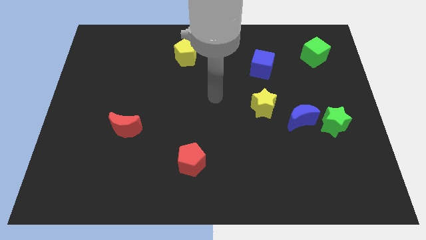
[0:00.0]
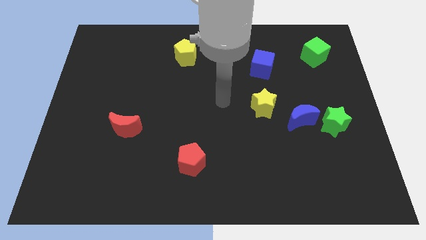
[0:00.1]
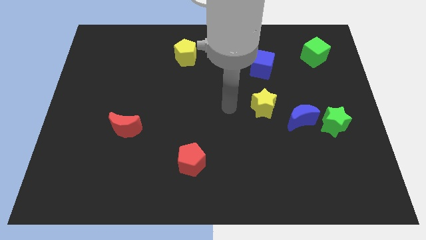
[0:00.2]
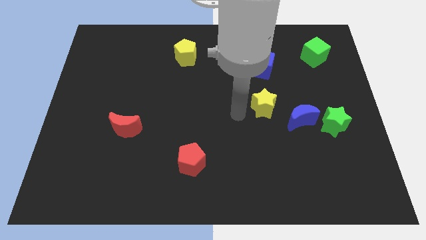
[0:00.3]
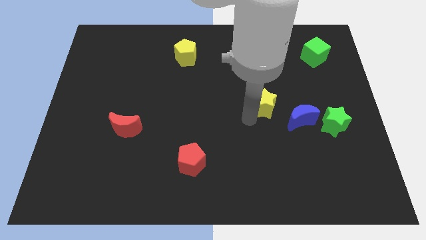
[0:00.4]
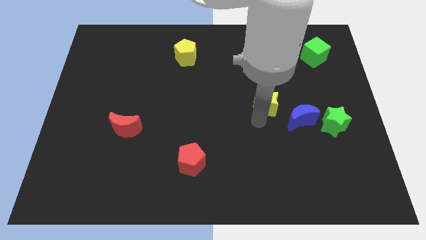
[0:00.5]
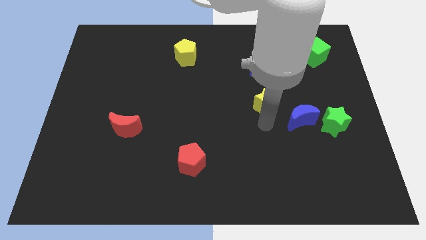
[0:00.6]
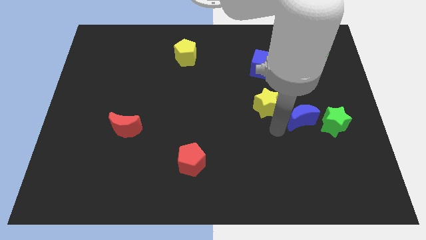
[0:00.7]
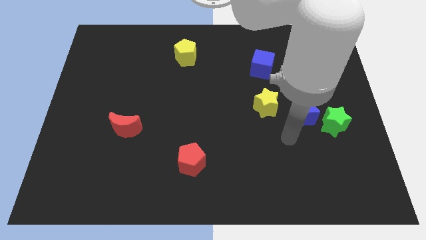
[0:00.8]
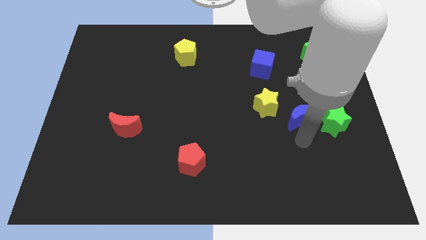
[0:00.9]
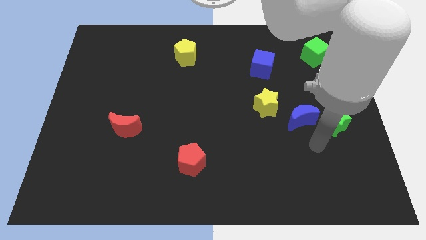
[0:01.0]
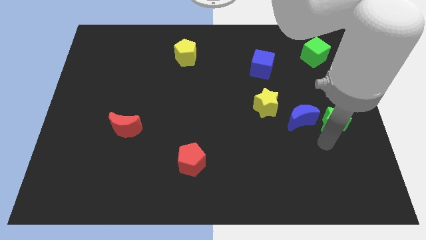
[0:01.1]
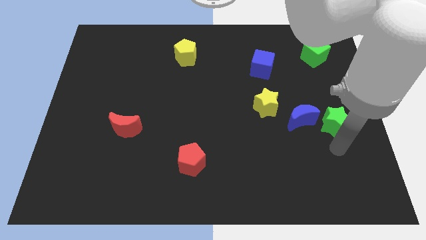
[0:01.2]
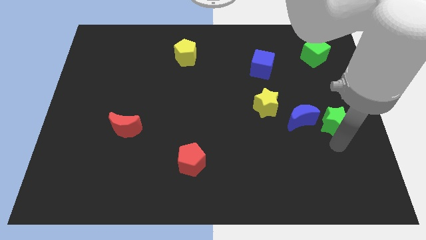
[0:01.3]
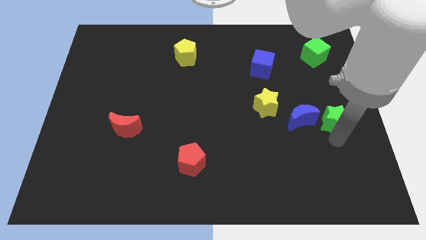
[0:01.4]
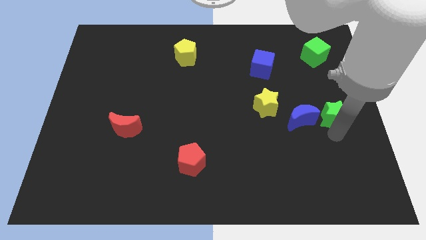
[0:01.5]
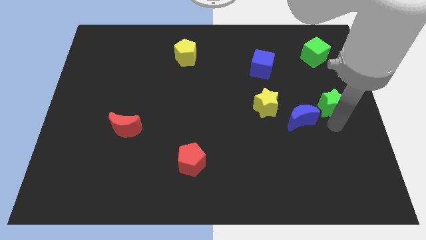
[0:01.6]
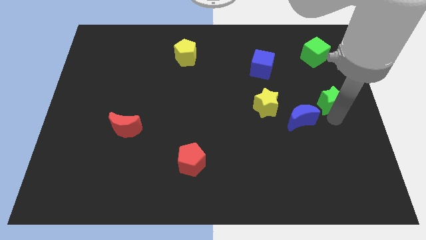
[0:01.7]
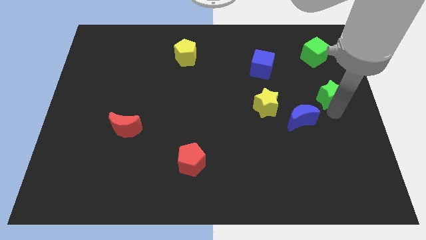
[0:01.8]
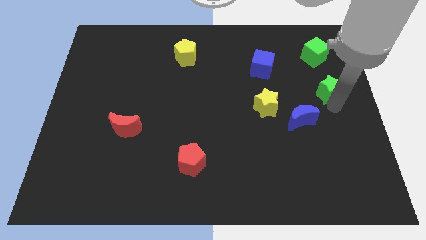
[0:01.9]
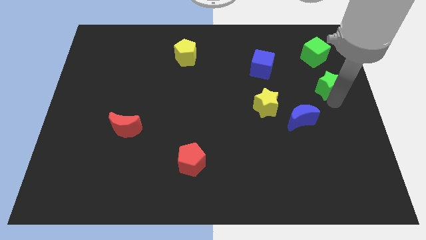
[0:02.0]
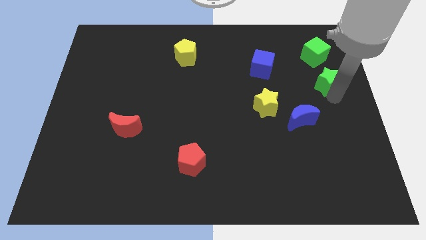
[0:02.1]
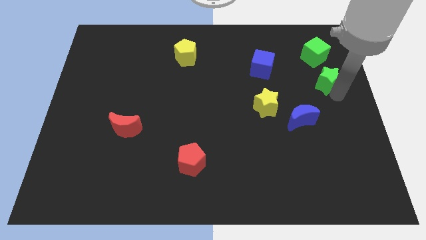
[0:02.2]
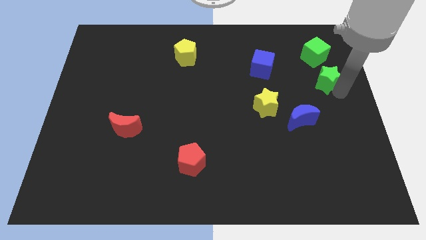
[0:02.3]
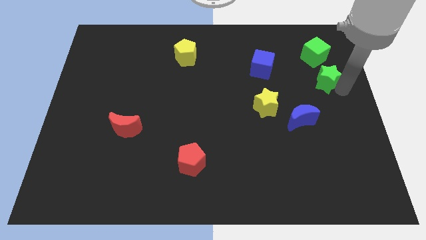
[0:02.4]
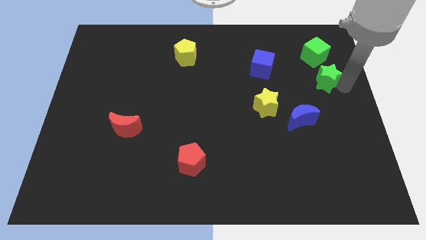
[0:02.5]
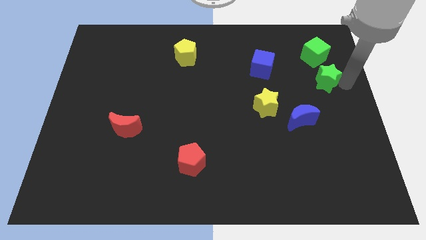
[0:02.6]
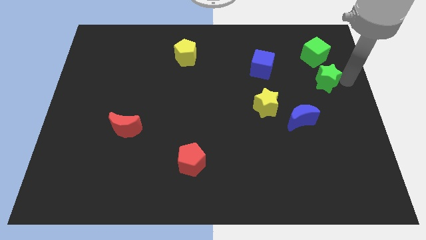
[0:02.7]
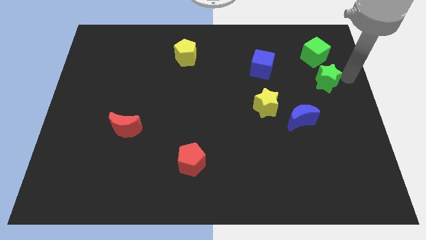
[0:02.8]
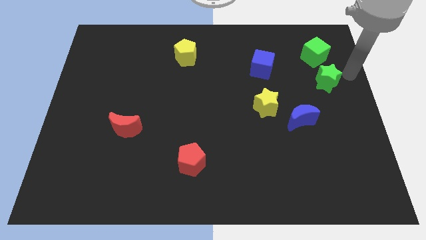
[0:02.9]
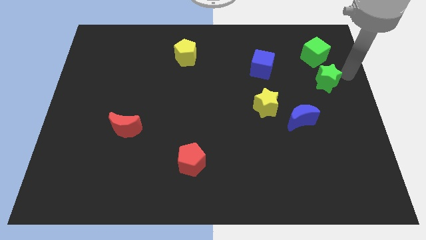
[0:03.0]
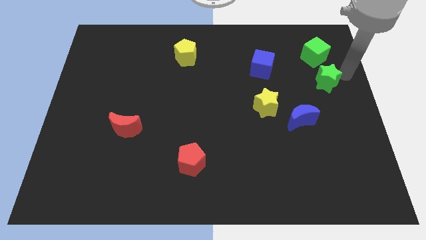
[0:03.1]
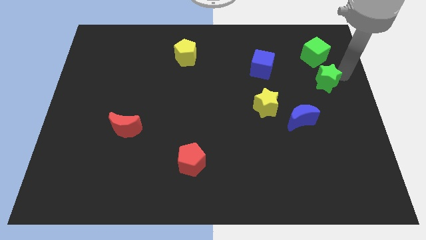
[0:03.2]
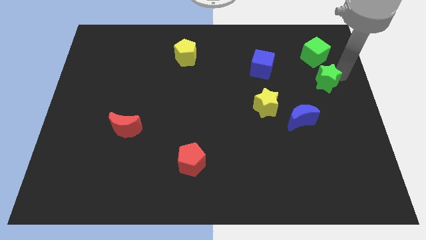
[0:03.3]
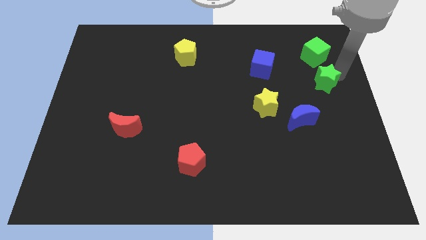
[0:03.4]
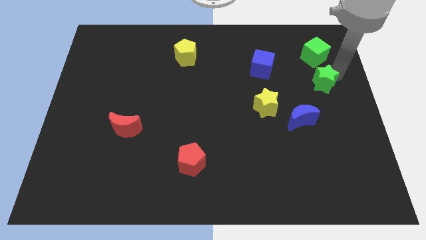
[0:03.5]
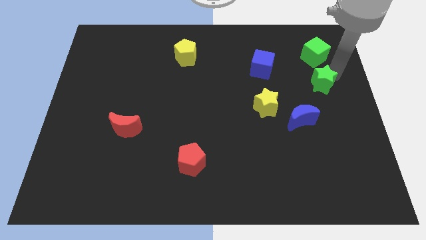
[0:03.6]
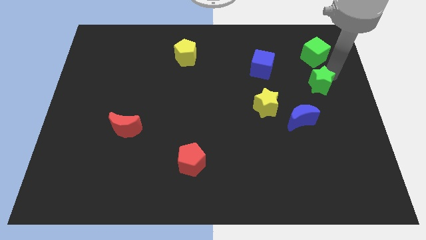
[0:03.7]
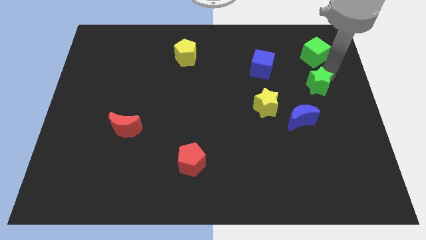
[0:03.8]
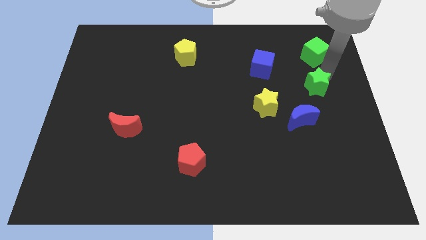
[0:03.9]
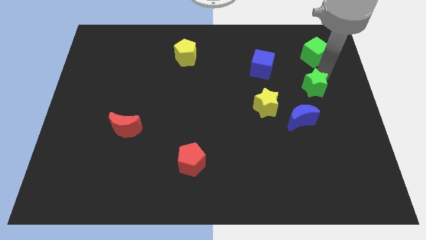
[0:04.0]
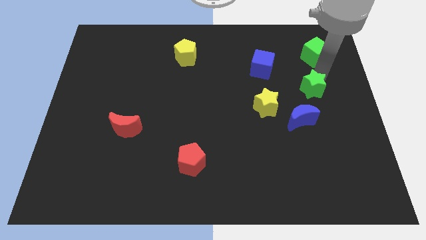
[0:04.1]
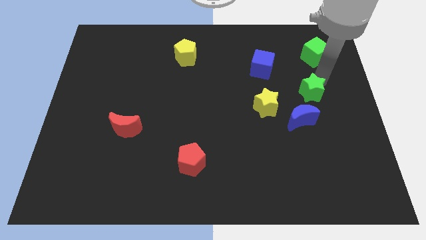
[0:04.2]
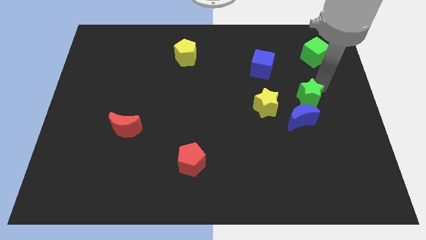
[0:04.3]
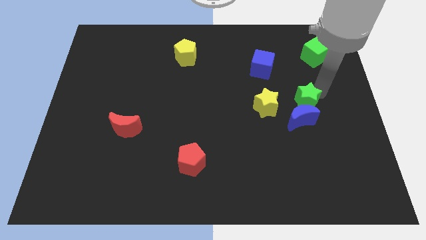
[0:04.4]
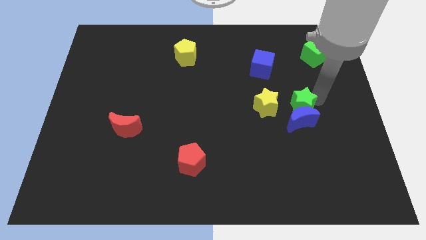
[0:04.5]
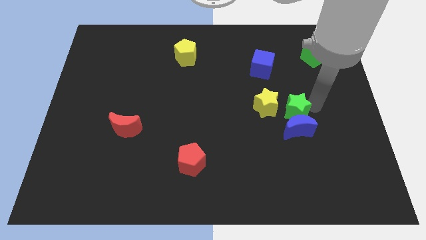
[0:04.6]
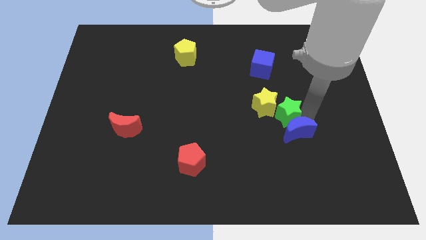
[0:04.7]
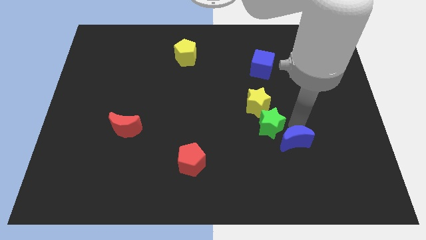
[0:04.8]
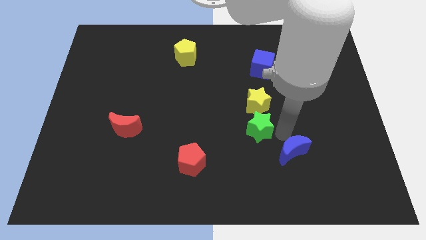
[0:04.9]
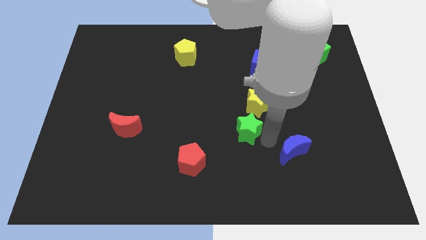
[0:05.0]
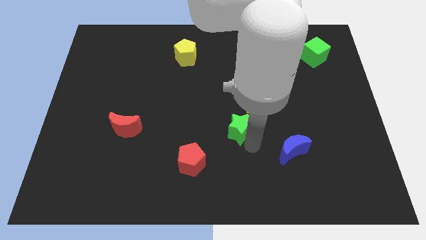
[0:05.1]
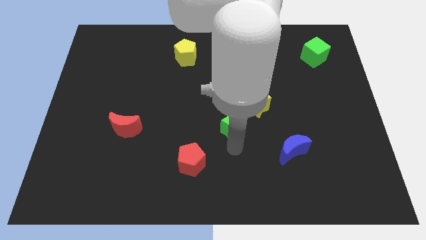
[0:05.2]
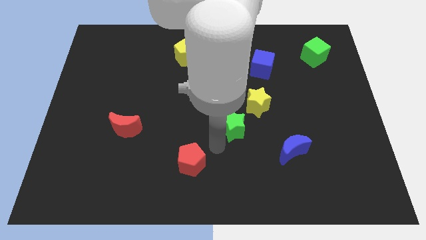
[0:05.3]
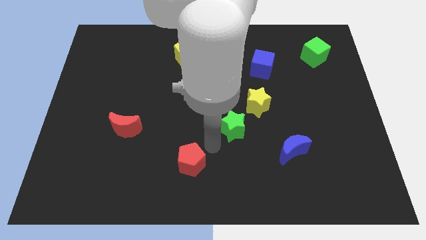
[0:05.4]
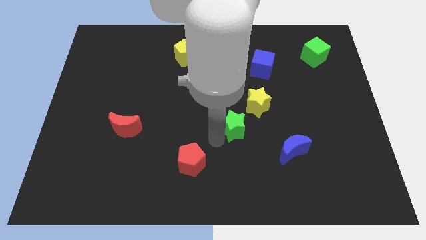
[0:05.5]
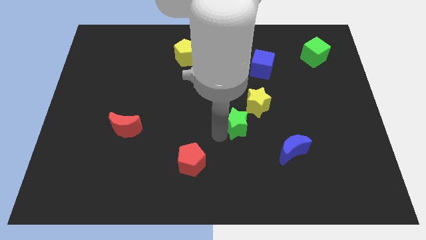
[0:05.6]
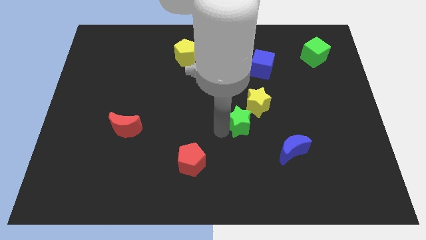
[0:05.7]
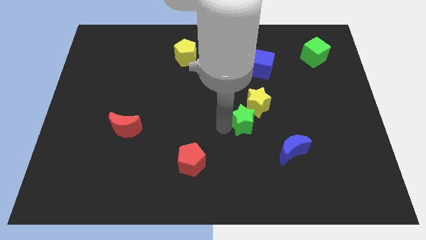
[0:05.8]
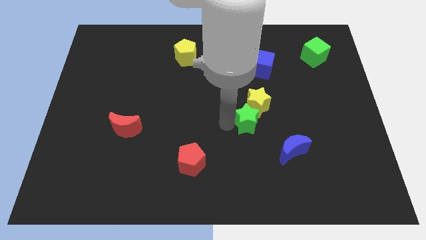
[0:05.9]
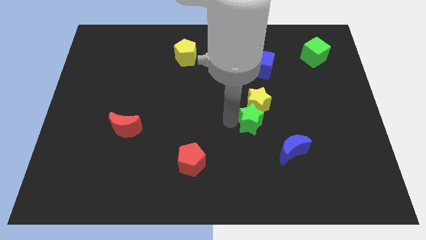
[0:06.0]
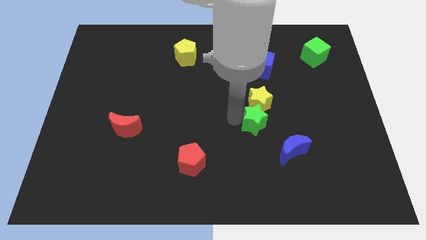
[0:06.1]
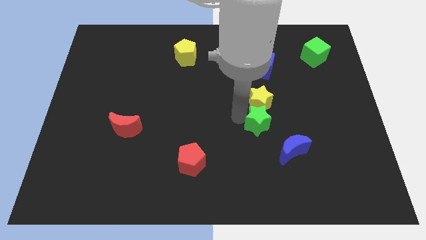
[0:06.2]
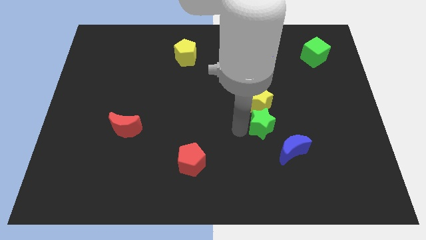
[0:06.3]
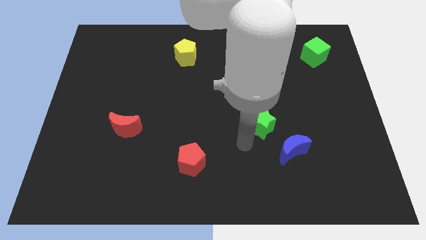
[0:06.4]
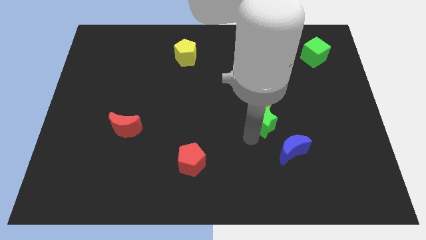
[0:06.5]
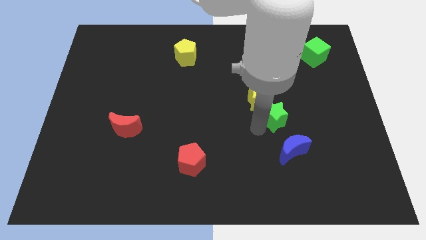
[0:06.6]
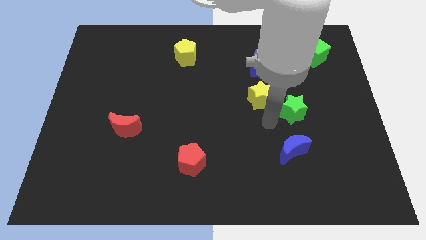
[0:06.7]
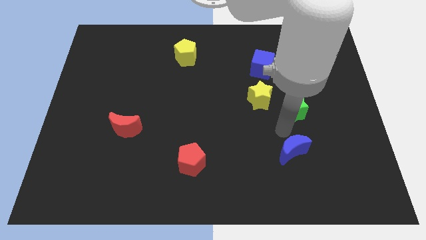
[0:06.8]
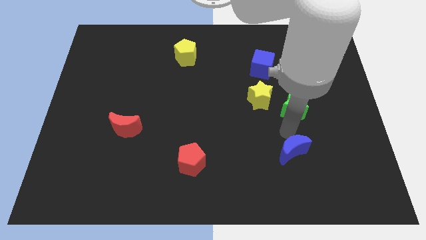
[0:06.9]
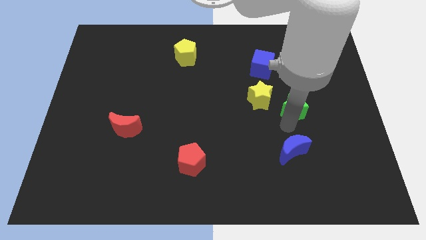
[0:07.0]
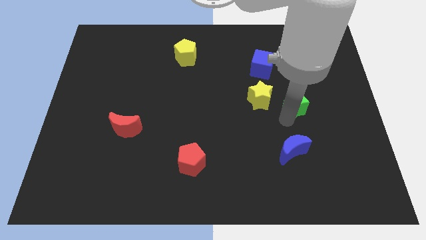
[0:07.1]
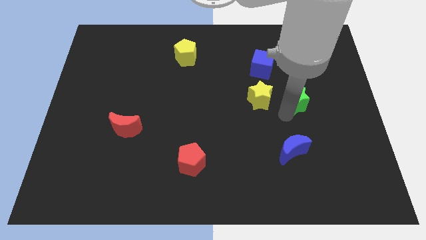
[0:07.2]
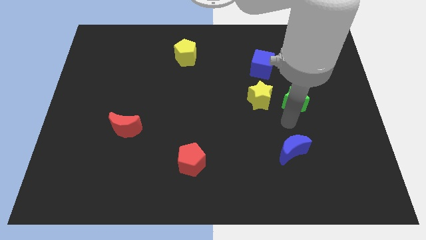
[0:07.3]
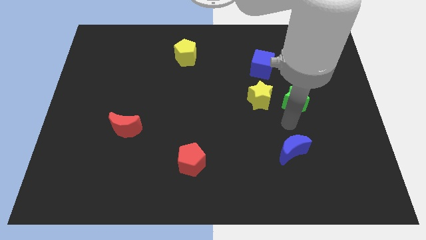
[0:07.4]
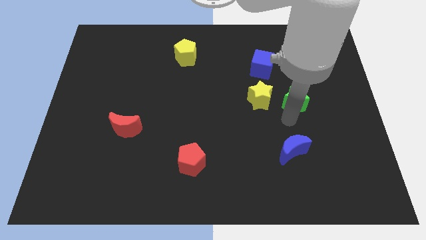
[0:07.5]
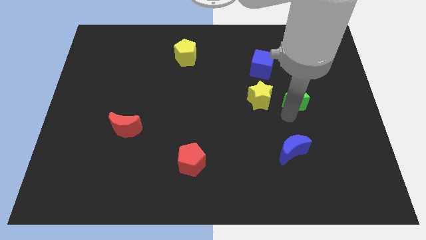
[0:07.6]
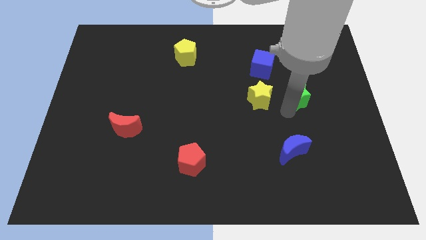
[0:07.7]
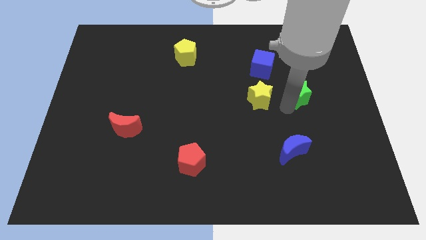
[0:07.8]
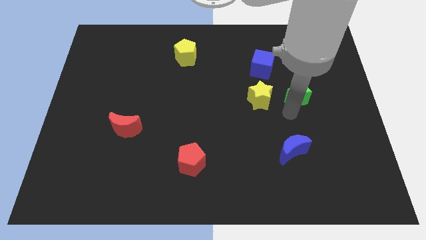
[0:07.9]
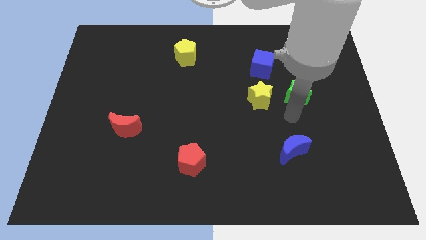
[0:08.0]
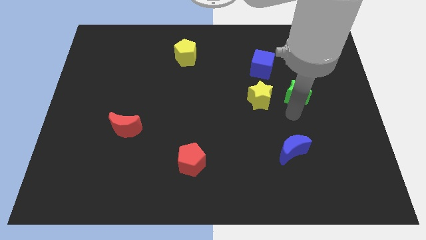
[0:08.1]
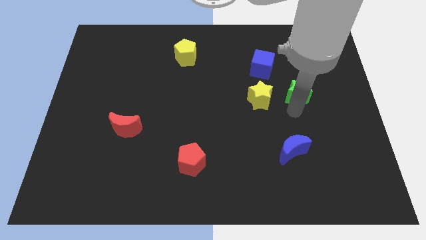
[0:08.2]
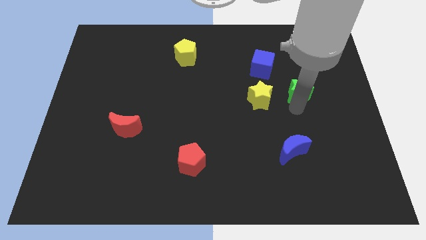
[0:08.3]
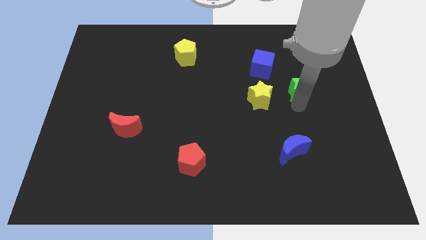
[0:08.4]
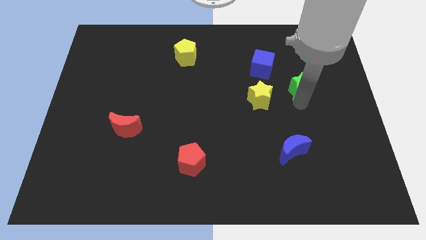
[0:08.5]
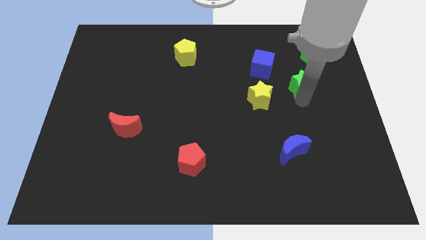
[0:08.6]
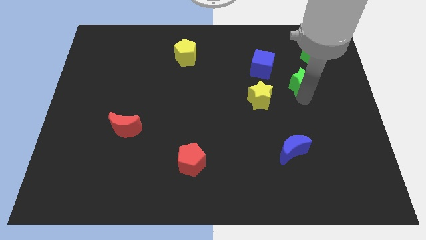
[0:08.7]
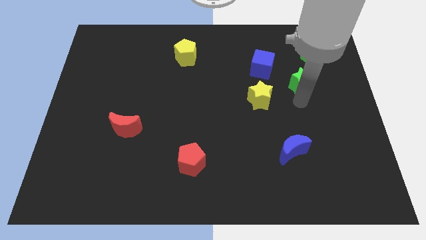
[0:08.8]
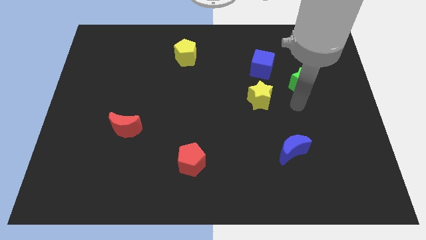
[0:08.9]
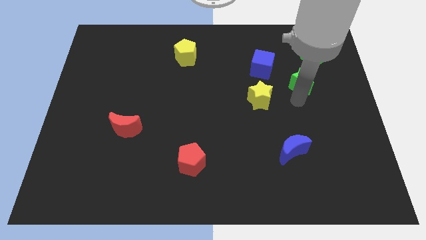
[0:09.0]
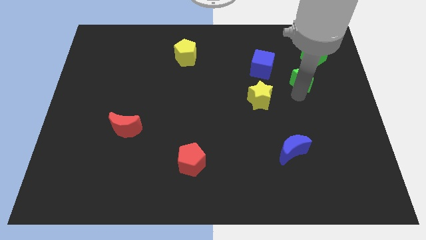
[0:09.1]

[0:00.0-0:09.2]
push the green star right of the blue cube
